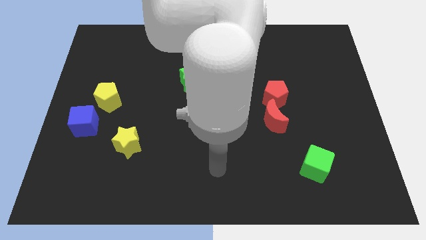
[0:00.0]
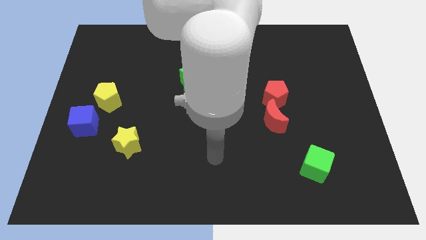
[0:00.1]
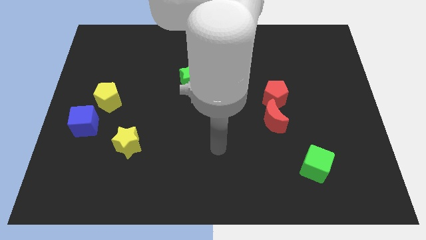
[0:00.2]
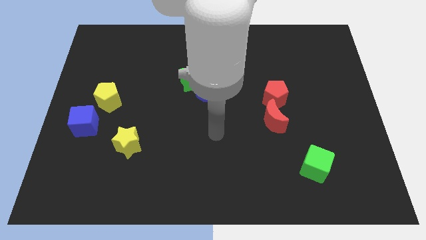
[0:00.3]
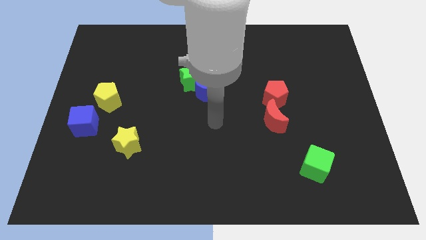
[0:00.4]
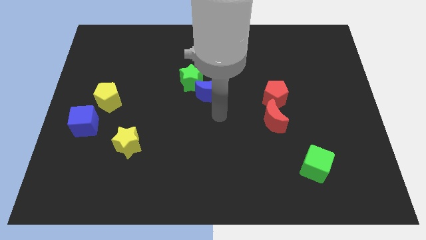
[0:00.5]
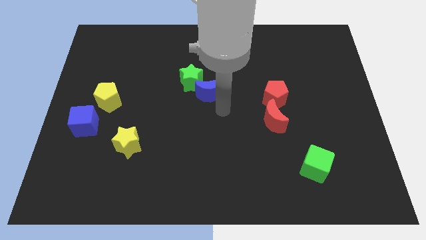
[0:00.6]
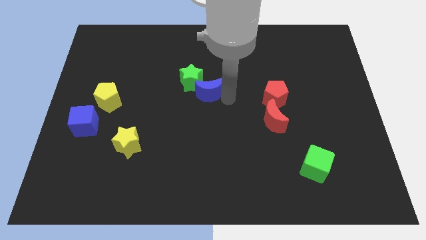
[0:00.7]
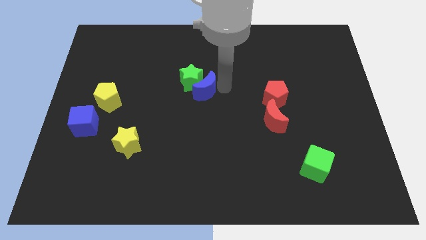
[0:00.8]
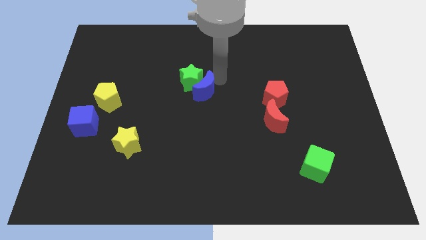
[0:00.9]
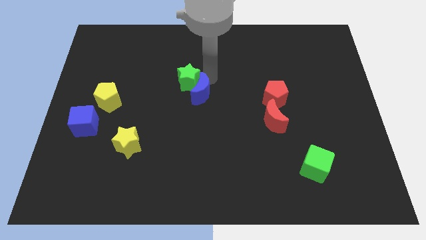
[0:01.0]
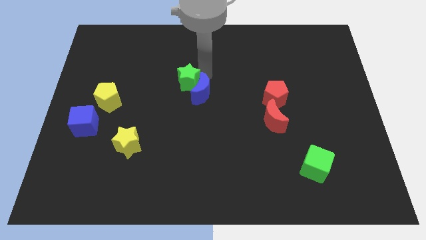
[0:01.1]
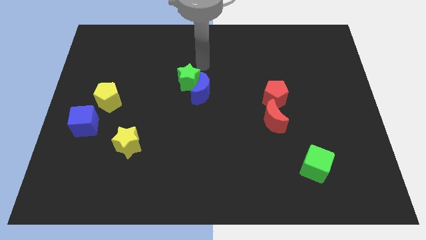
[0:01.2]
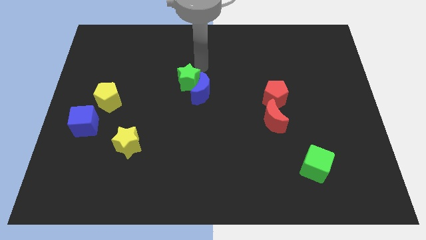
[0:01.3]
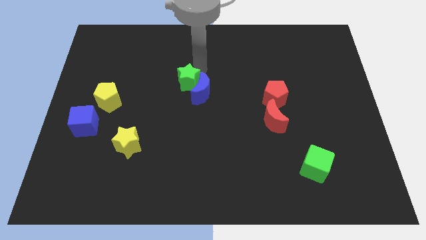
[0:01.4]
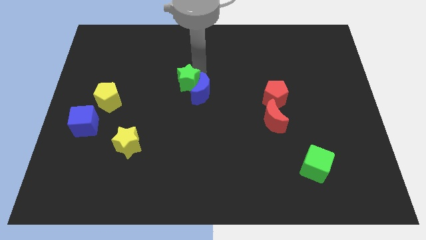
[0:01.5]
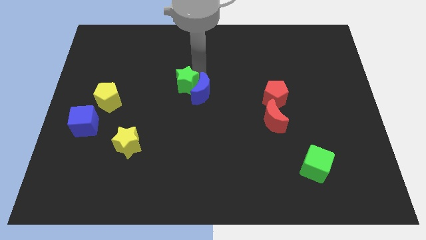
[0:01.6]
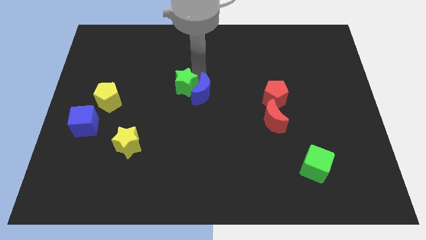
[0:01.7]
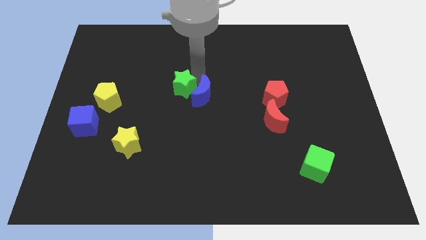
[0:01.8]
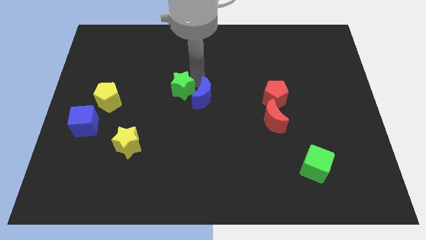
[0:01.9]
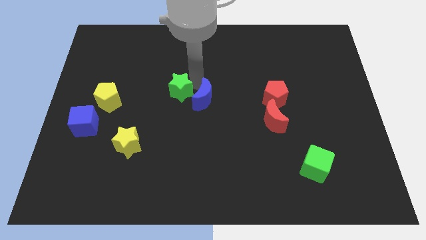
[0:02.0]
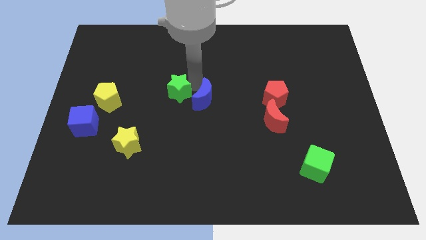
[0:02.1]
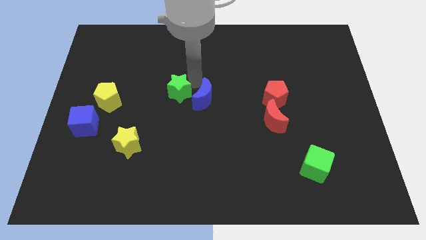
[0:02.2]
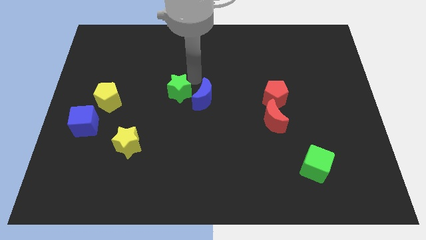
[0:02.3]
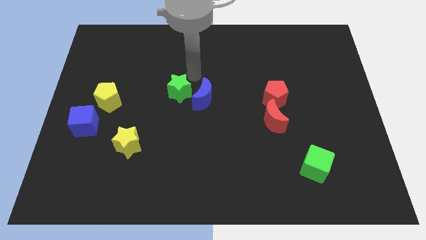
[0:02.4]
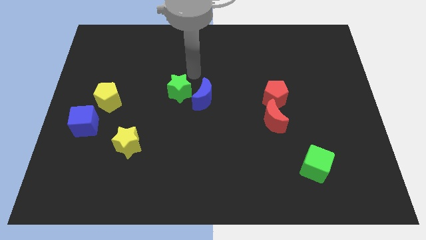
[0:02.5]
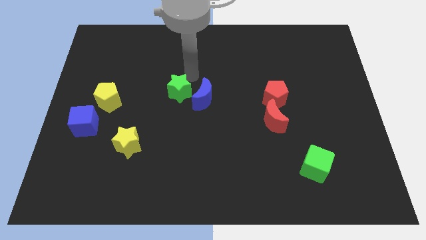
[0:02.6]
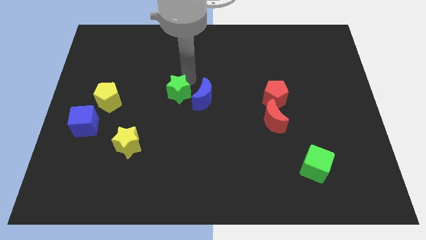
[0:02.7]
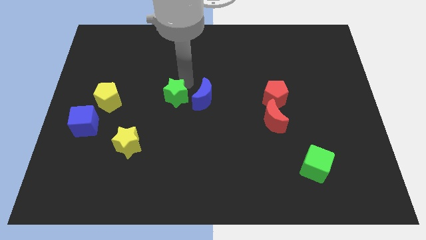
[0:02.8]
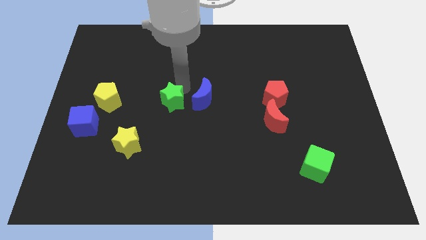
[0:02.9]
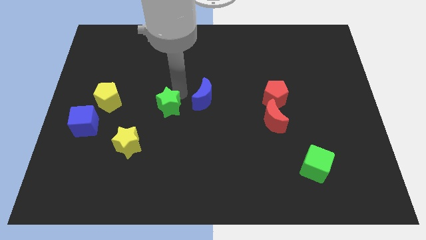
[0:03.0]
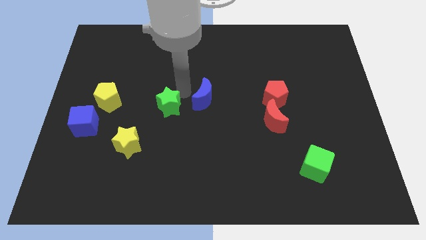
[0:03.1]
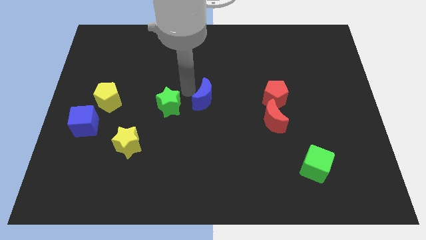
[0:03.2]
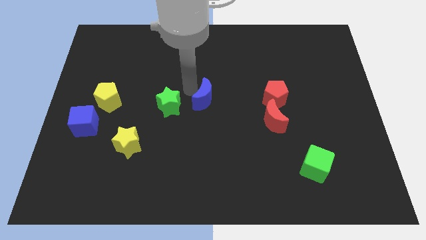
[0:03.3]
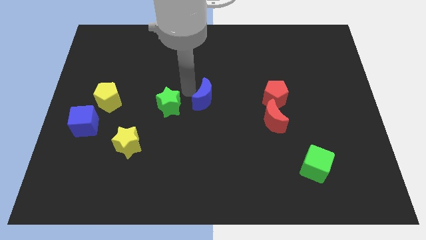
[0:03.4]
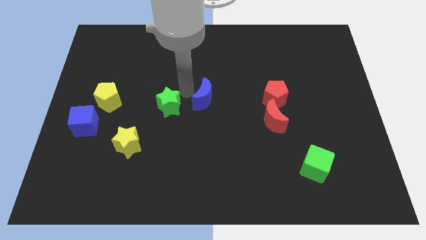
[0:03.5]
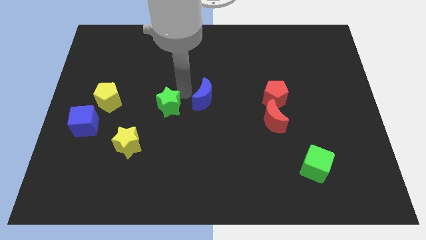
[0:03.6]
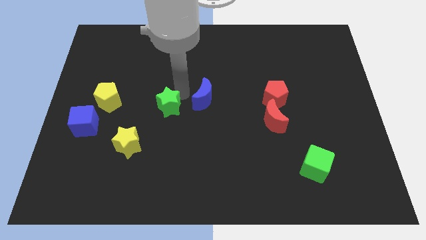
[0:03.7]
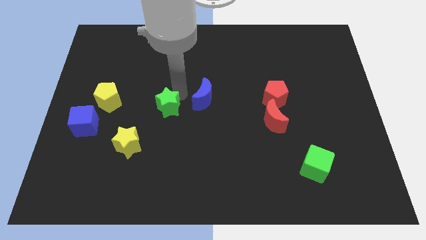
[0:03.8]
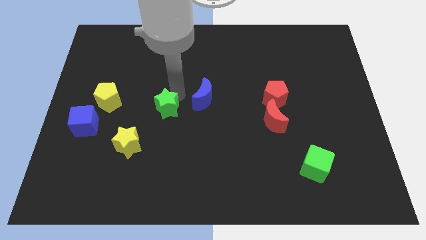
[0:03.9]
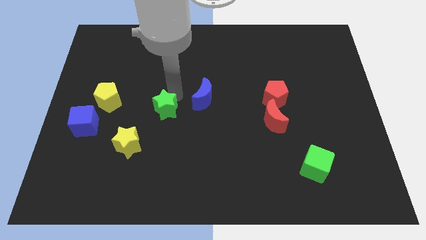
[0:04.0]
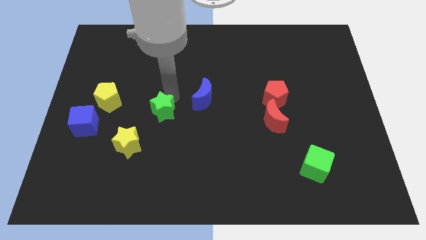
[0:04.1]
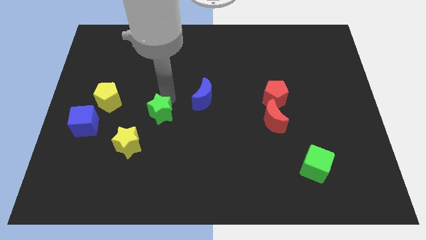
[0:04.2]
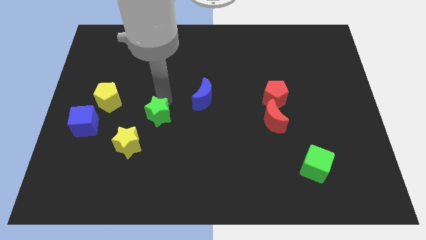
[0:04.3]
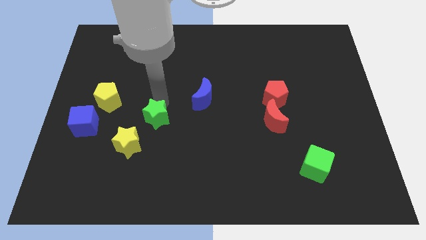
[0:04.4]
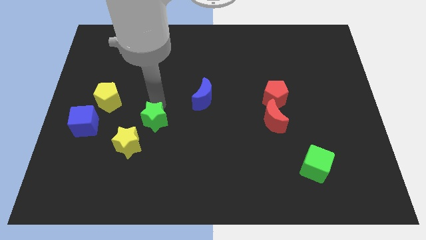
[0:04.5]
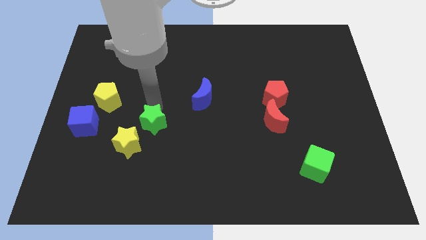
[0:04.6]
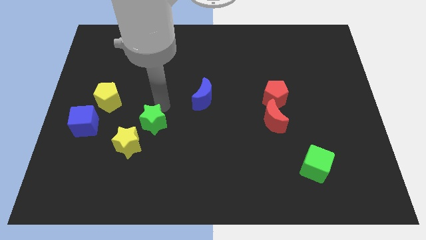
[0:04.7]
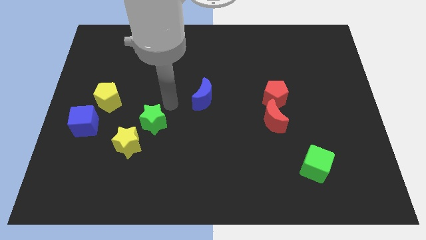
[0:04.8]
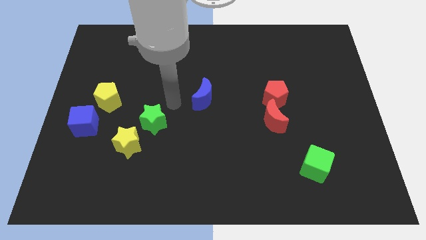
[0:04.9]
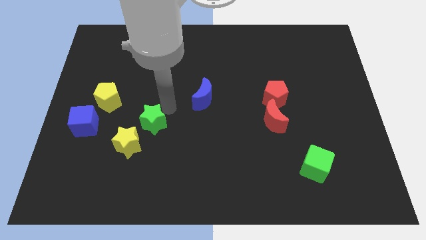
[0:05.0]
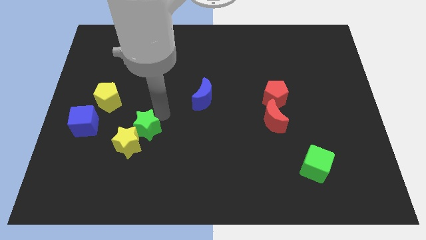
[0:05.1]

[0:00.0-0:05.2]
push the green star to the yellow star

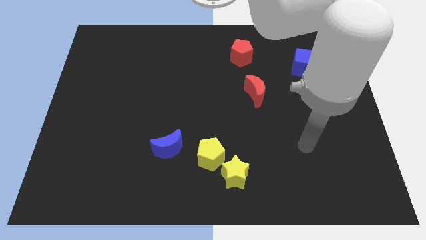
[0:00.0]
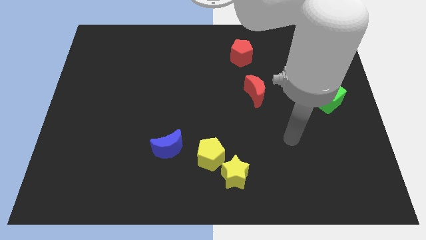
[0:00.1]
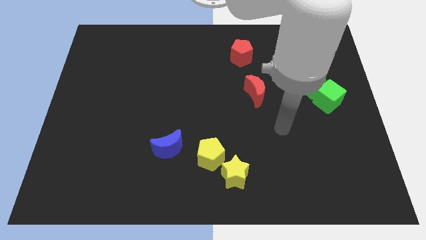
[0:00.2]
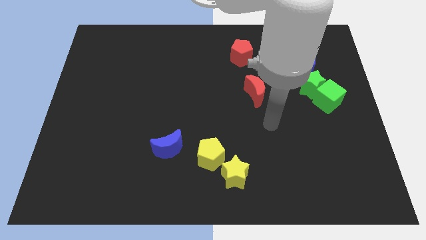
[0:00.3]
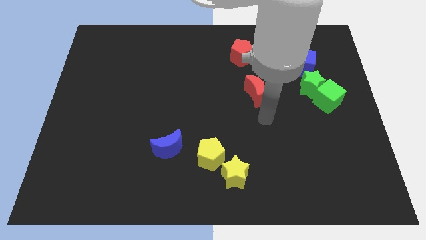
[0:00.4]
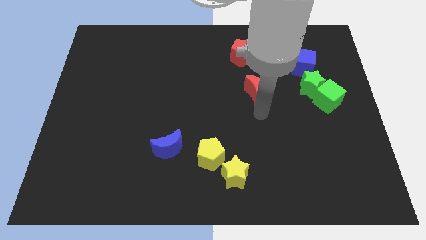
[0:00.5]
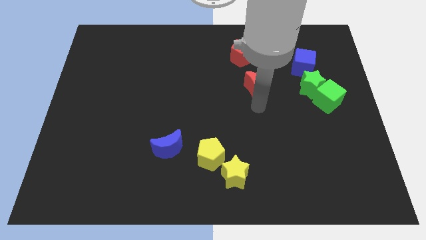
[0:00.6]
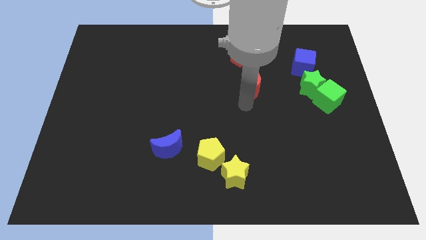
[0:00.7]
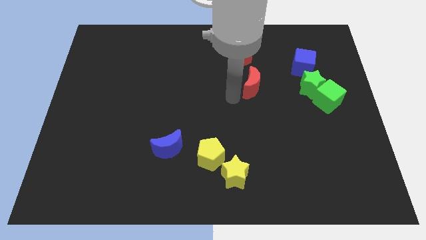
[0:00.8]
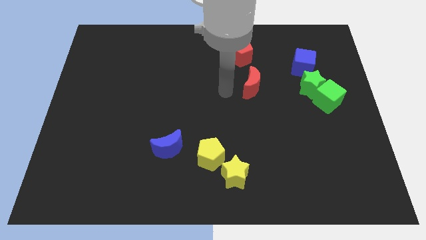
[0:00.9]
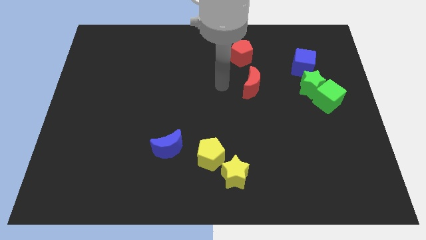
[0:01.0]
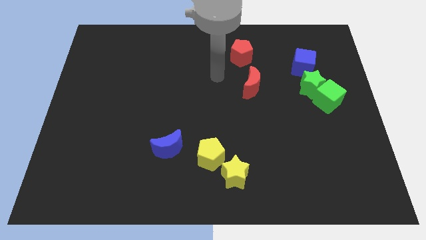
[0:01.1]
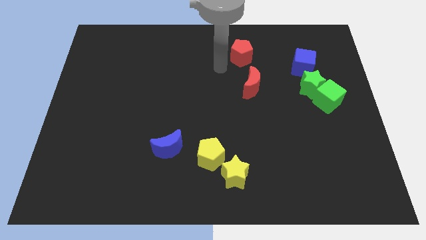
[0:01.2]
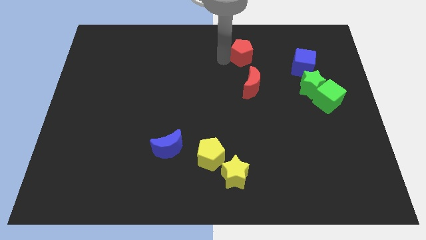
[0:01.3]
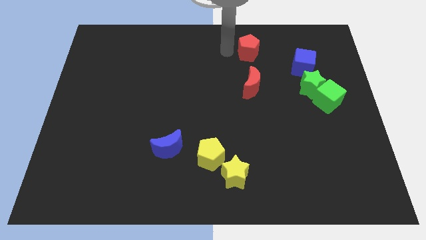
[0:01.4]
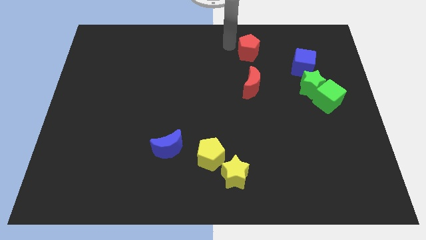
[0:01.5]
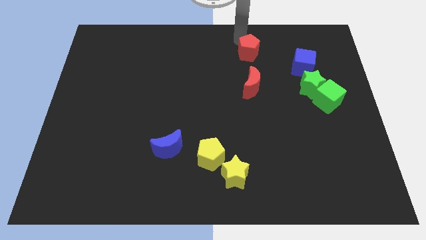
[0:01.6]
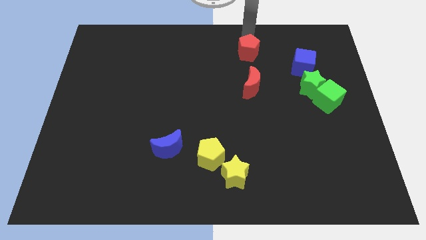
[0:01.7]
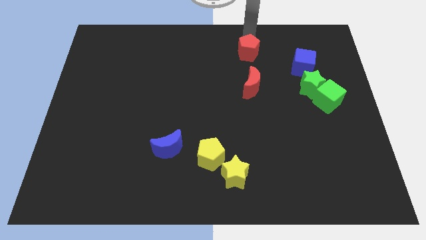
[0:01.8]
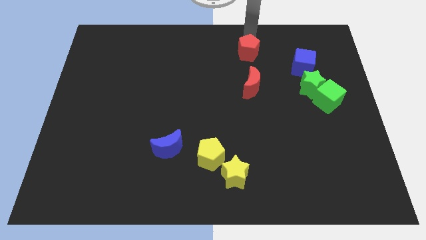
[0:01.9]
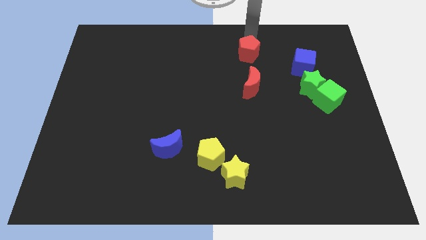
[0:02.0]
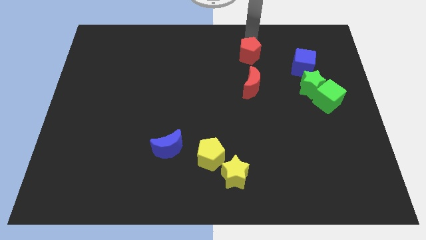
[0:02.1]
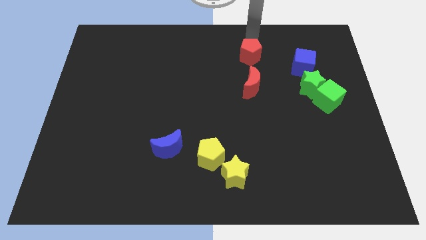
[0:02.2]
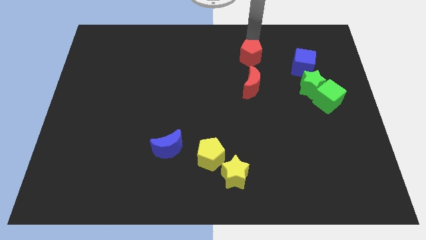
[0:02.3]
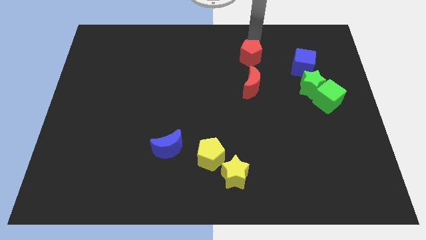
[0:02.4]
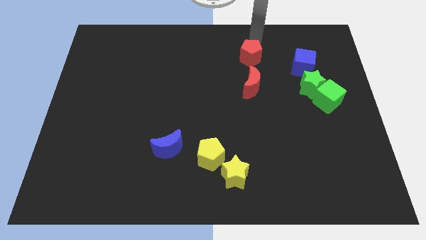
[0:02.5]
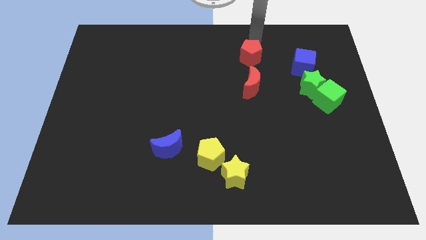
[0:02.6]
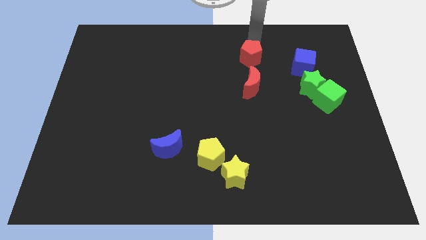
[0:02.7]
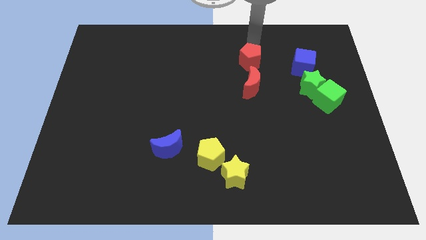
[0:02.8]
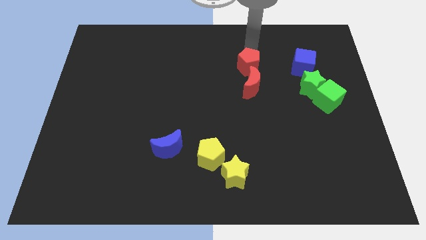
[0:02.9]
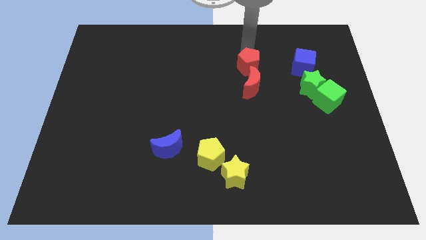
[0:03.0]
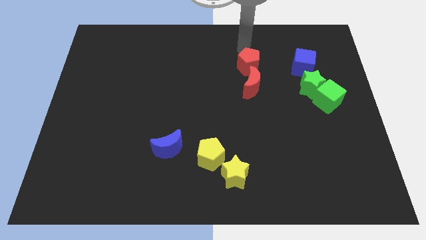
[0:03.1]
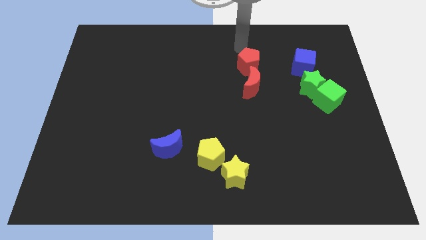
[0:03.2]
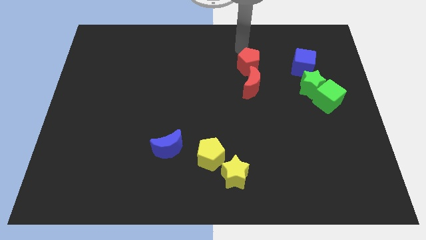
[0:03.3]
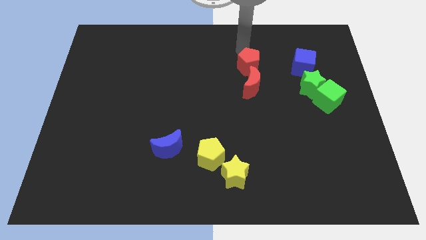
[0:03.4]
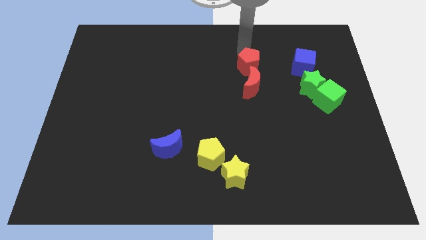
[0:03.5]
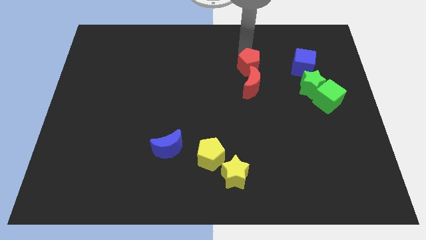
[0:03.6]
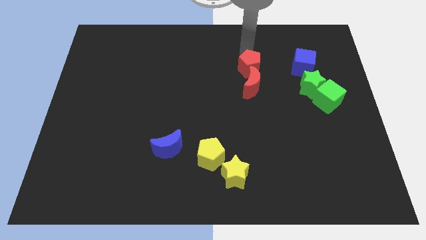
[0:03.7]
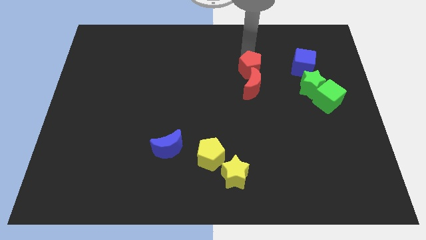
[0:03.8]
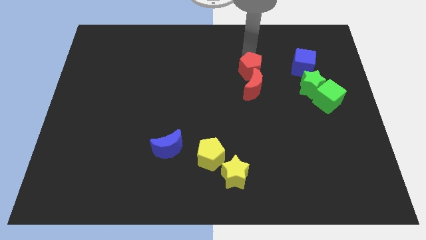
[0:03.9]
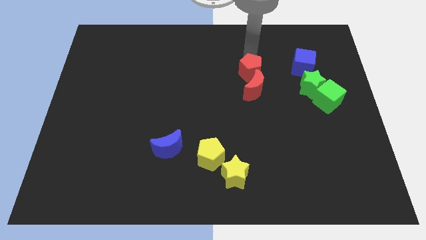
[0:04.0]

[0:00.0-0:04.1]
move the red pentagon next to the red moon
